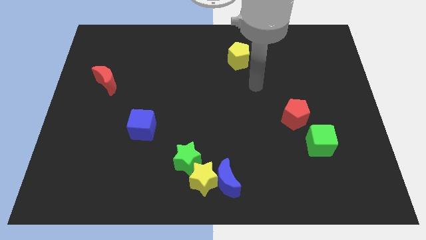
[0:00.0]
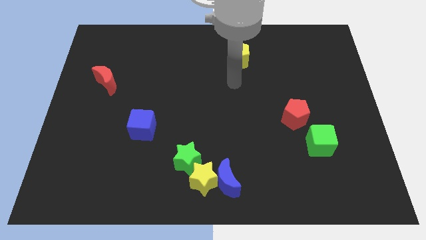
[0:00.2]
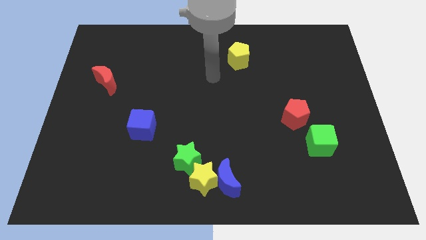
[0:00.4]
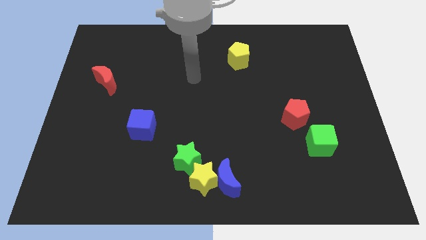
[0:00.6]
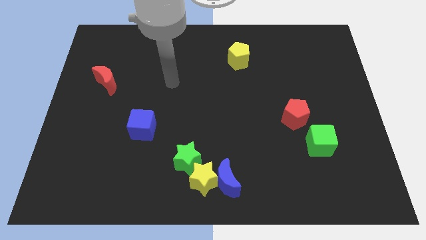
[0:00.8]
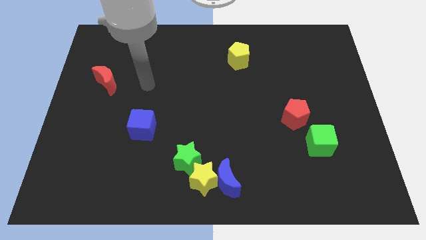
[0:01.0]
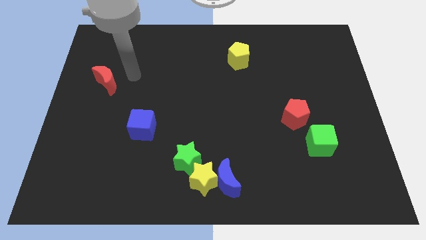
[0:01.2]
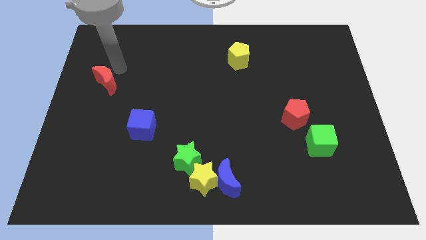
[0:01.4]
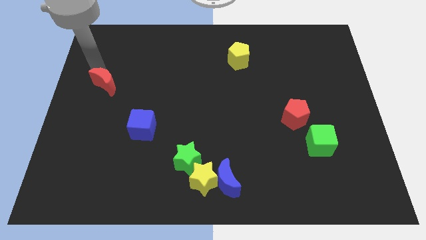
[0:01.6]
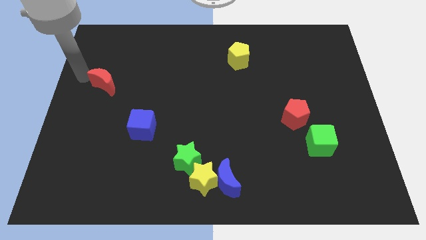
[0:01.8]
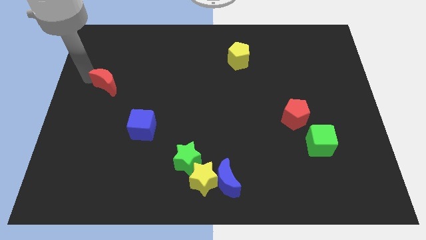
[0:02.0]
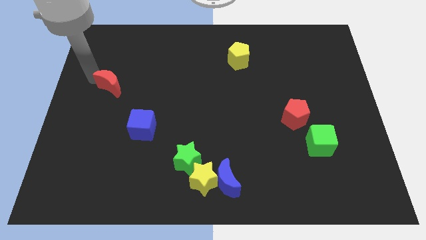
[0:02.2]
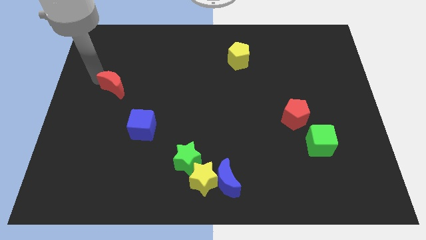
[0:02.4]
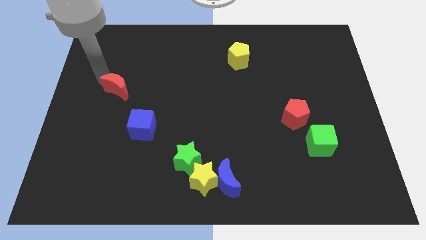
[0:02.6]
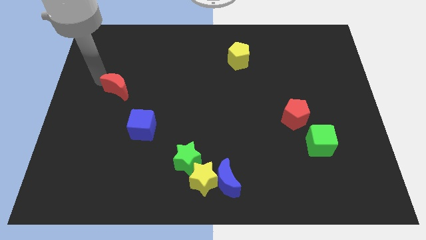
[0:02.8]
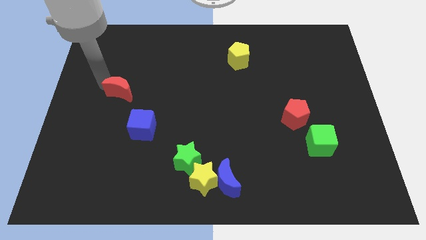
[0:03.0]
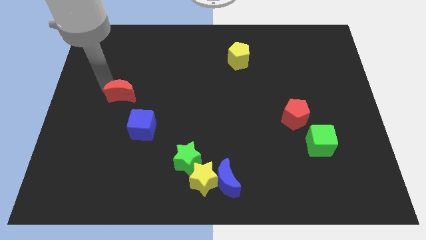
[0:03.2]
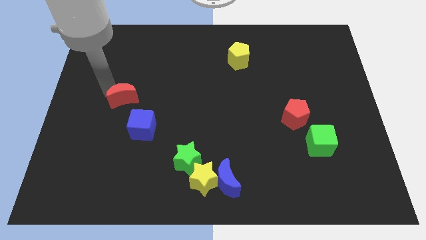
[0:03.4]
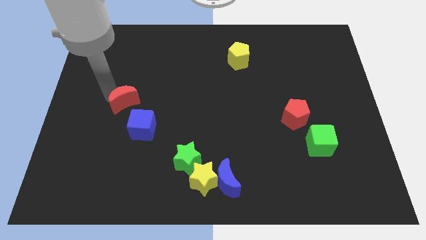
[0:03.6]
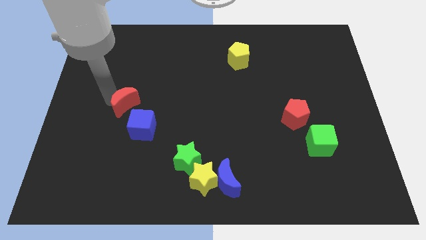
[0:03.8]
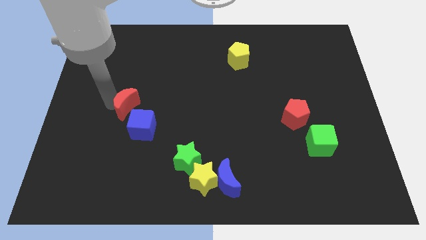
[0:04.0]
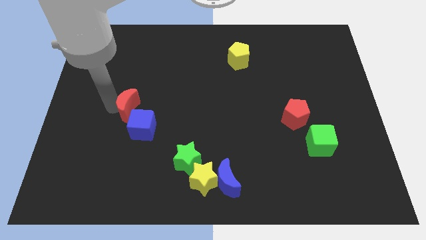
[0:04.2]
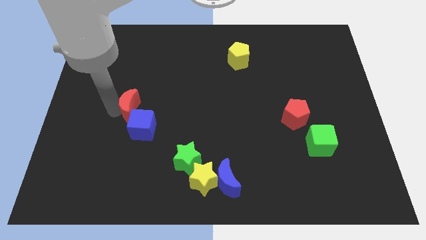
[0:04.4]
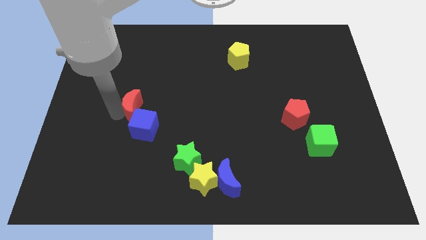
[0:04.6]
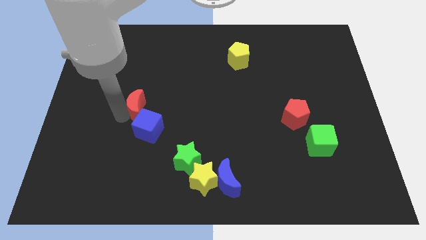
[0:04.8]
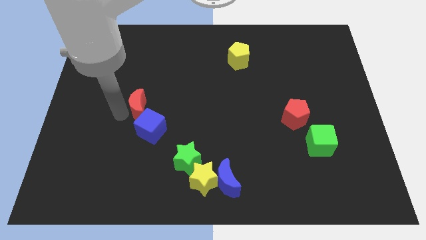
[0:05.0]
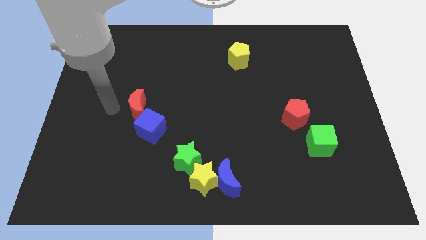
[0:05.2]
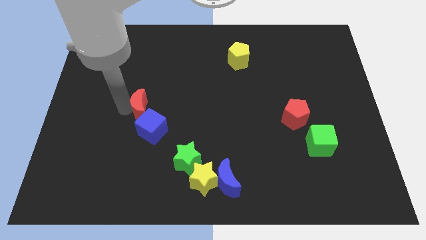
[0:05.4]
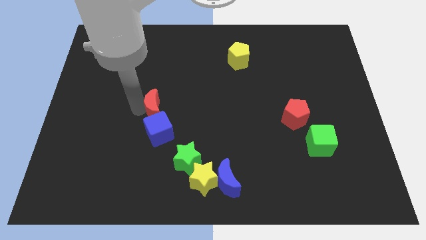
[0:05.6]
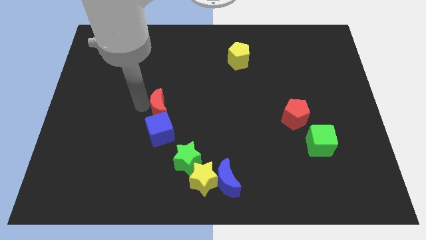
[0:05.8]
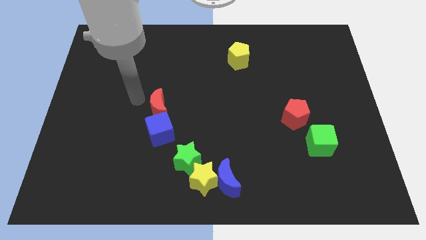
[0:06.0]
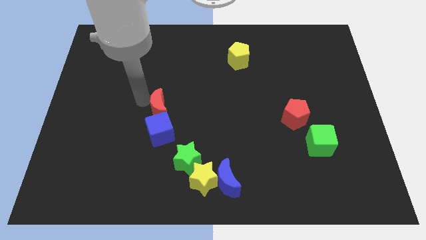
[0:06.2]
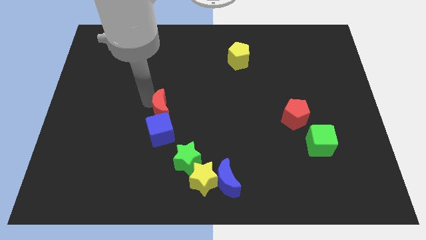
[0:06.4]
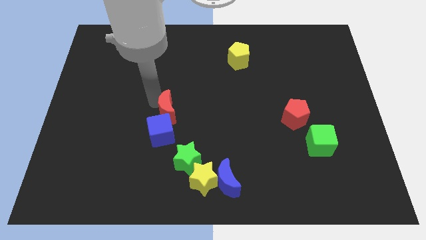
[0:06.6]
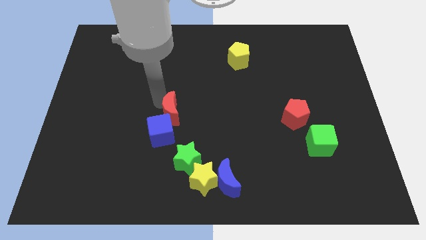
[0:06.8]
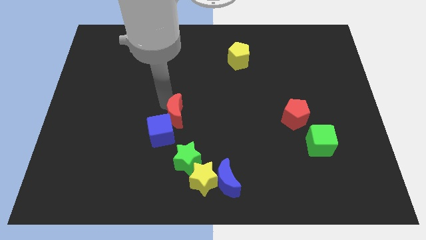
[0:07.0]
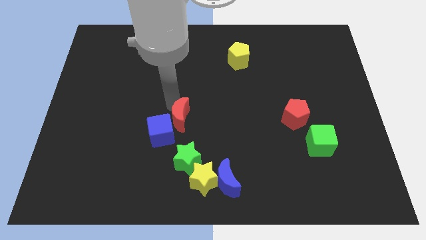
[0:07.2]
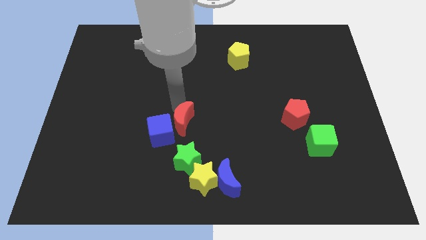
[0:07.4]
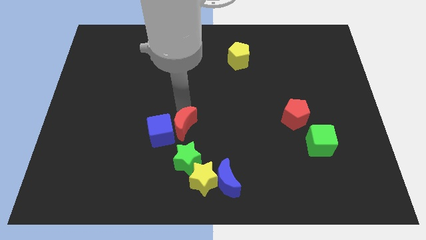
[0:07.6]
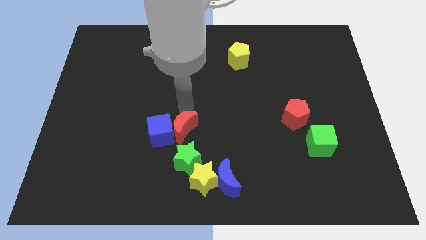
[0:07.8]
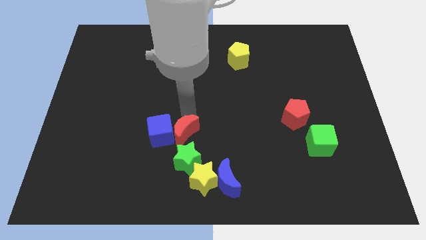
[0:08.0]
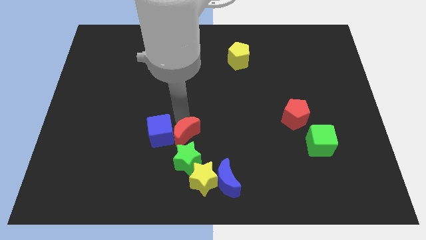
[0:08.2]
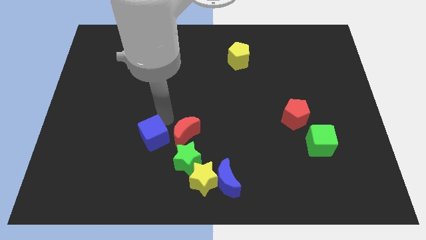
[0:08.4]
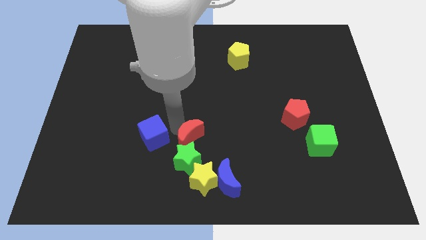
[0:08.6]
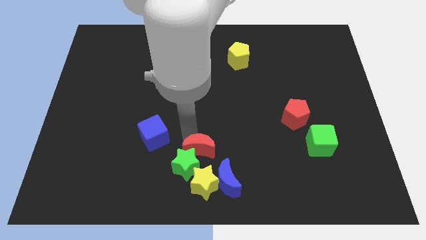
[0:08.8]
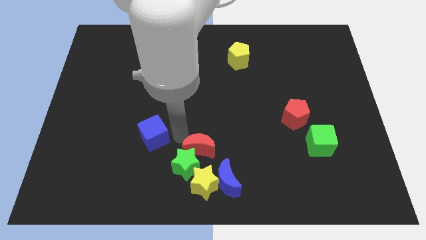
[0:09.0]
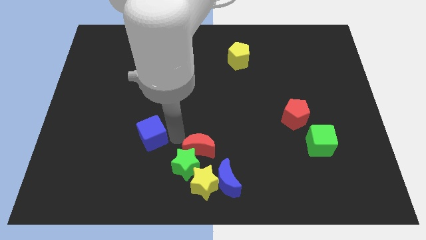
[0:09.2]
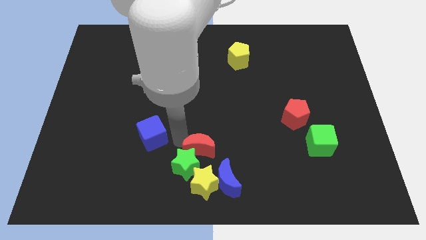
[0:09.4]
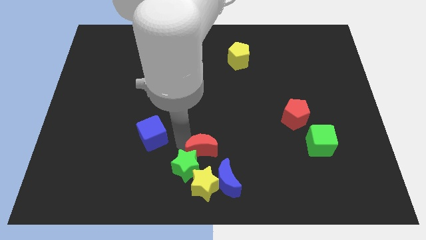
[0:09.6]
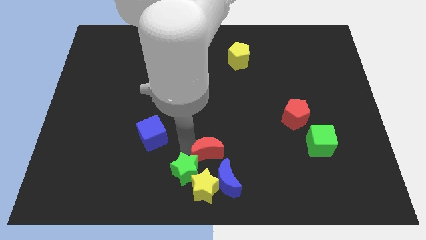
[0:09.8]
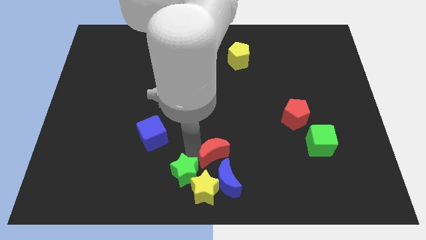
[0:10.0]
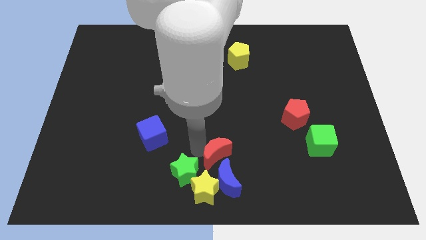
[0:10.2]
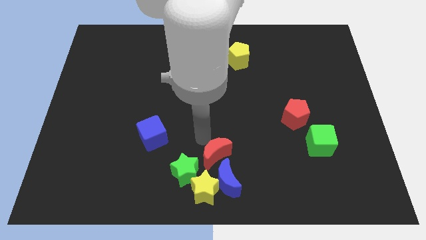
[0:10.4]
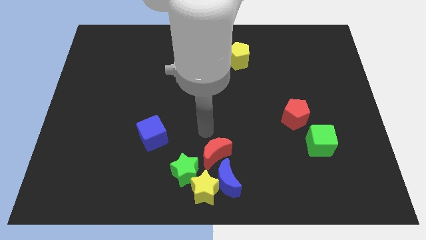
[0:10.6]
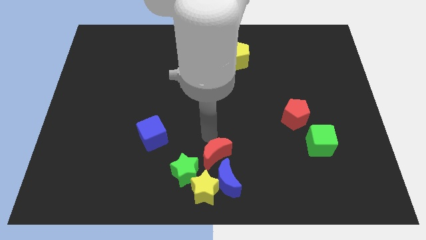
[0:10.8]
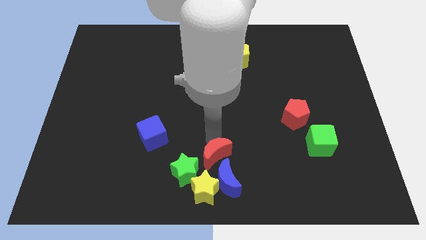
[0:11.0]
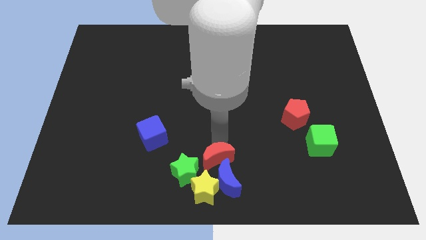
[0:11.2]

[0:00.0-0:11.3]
push the red moon close to the blue moon

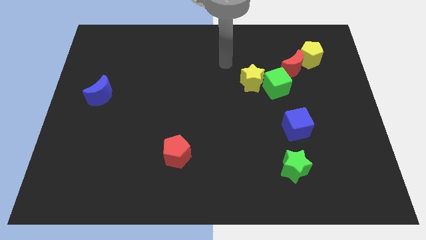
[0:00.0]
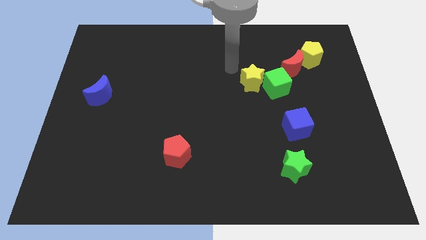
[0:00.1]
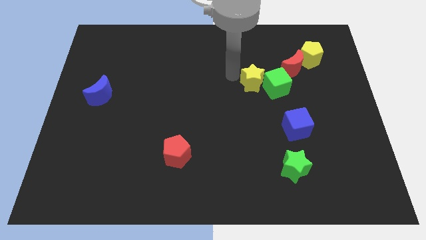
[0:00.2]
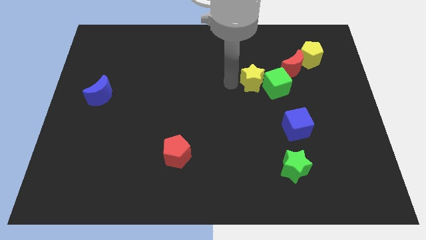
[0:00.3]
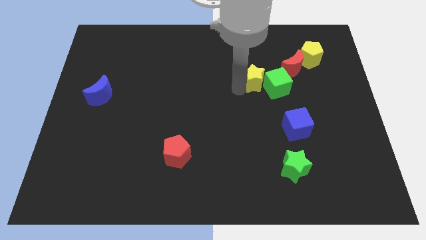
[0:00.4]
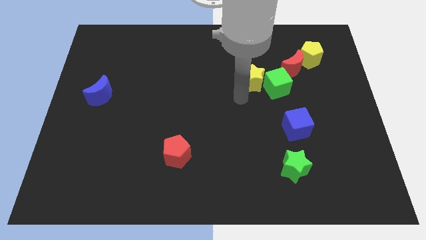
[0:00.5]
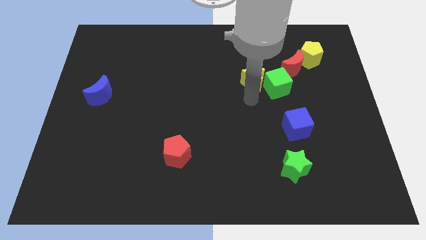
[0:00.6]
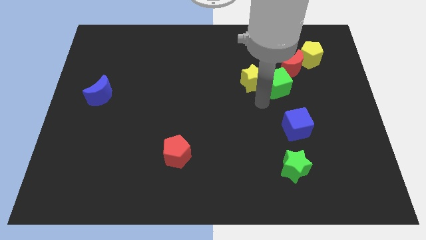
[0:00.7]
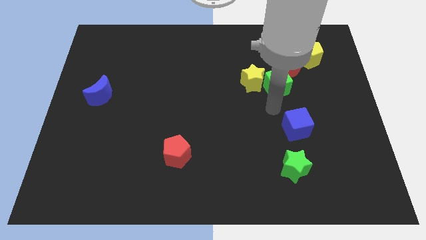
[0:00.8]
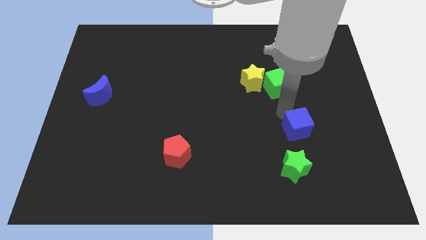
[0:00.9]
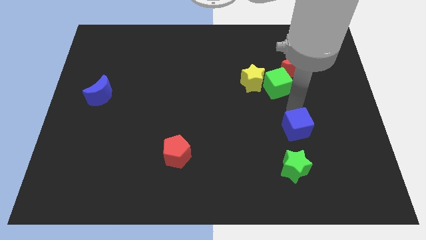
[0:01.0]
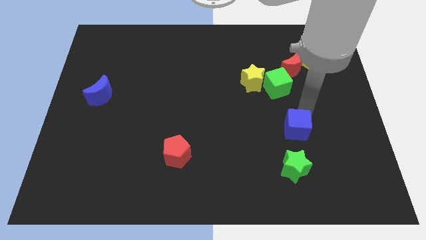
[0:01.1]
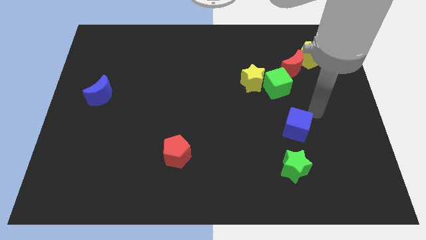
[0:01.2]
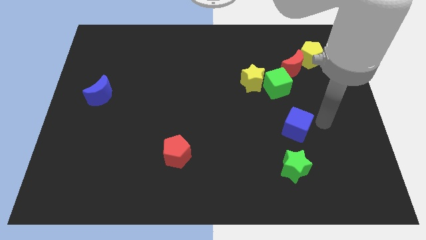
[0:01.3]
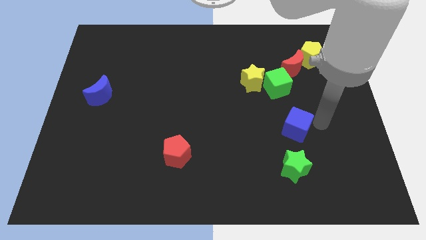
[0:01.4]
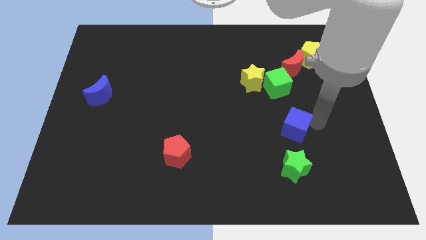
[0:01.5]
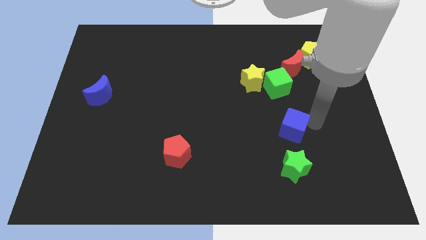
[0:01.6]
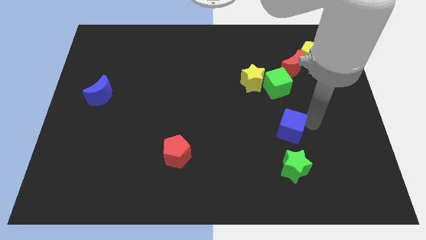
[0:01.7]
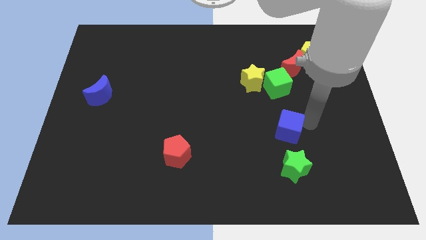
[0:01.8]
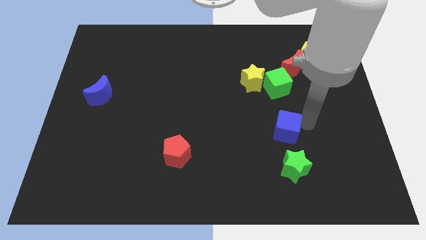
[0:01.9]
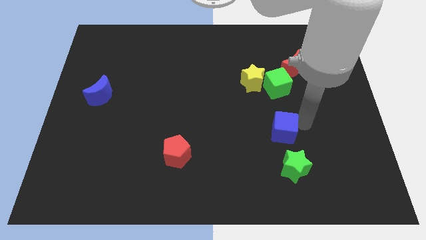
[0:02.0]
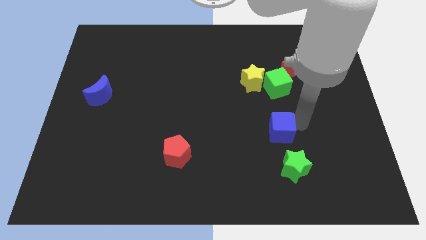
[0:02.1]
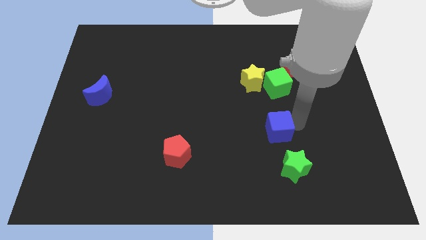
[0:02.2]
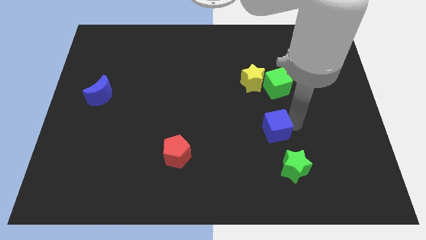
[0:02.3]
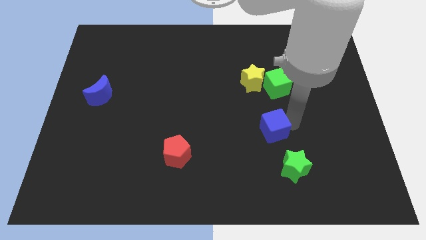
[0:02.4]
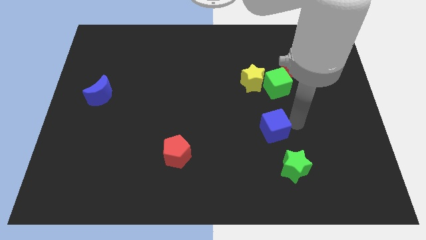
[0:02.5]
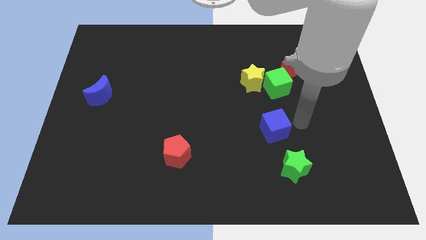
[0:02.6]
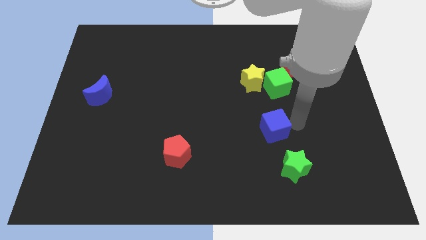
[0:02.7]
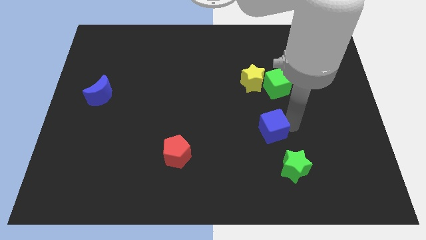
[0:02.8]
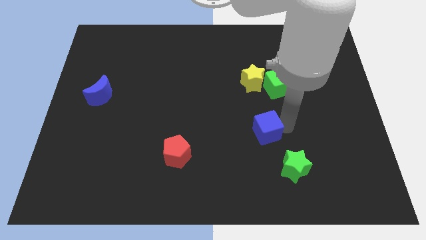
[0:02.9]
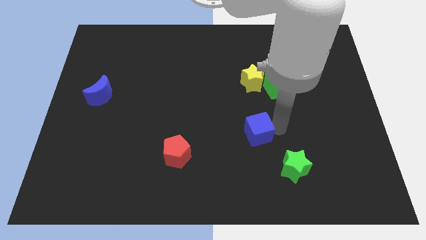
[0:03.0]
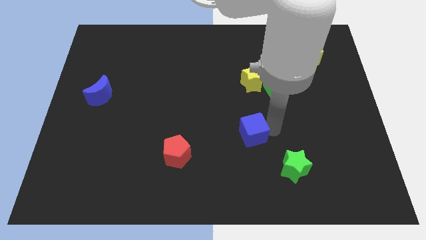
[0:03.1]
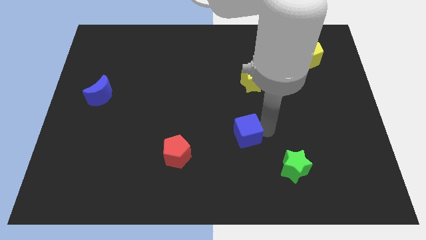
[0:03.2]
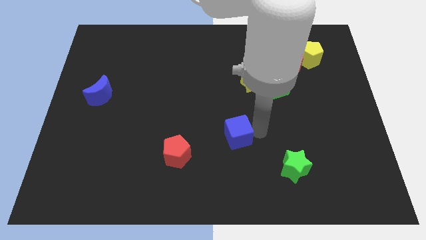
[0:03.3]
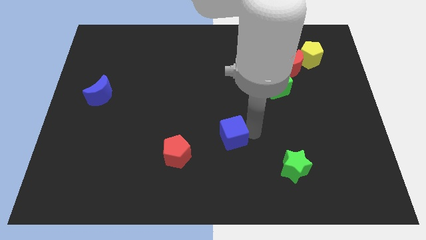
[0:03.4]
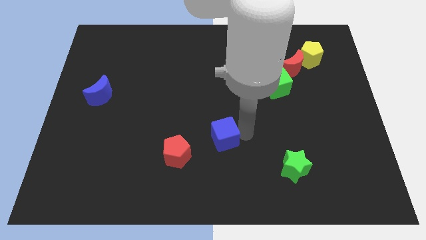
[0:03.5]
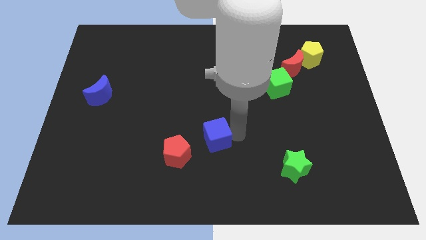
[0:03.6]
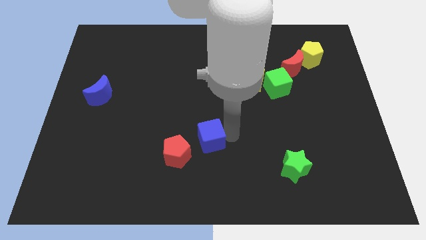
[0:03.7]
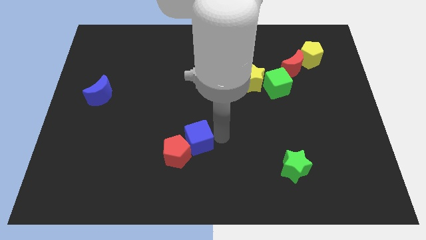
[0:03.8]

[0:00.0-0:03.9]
move the blue cube to the red pentagon
